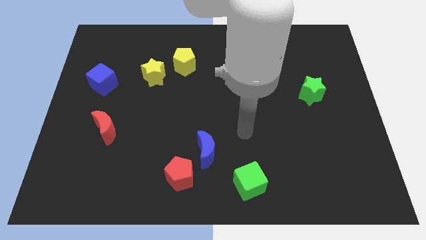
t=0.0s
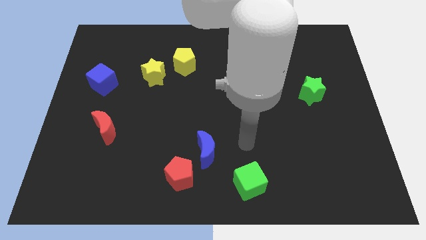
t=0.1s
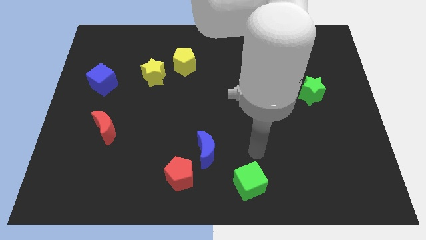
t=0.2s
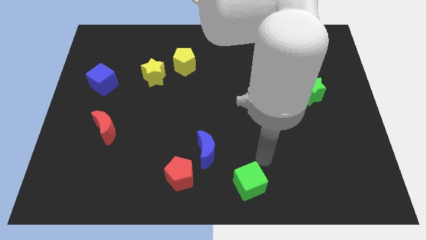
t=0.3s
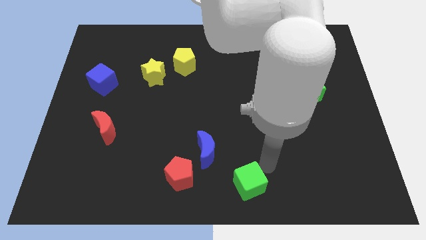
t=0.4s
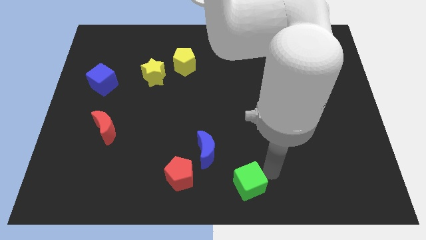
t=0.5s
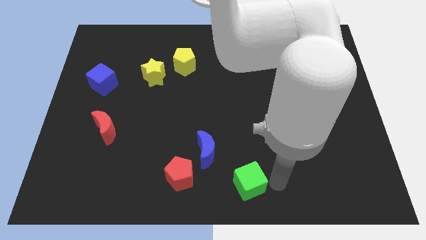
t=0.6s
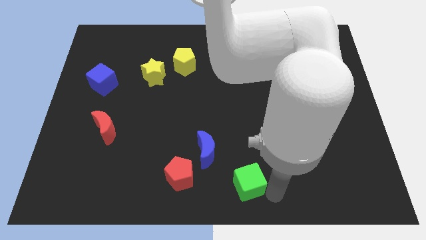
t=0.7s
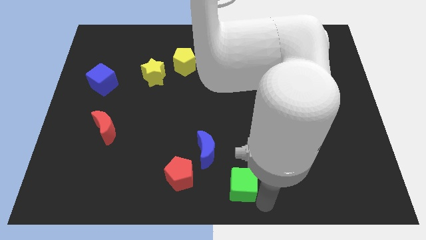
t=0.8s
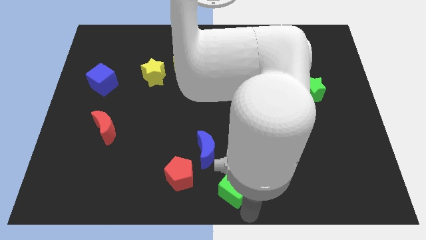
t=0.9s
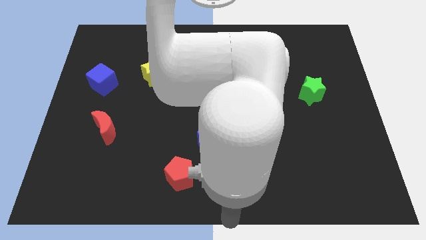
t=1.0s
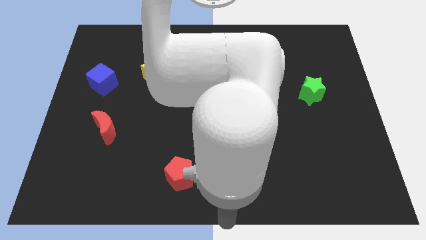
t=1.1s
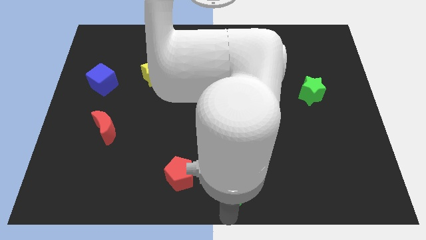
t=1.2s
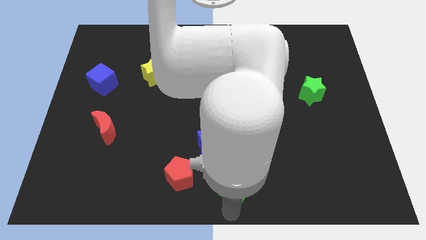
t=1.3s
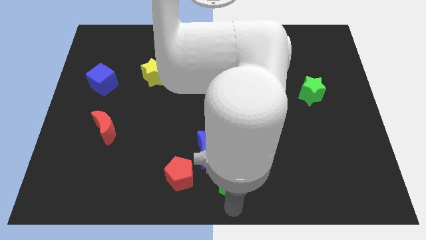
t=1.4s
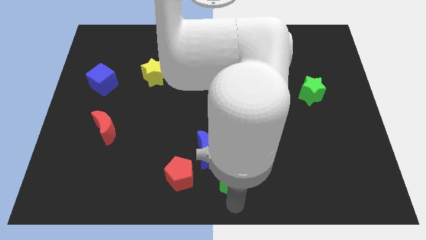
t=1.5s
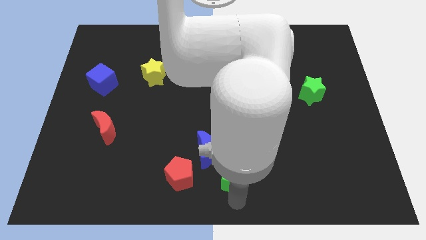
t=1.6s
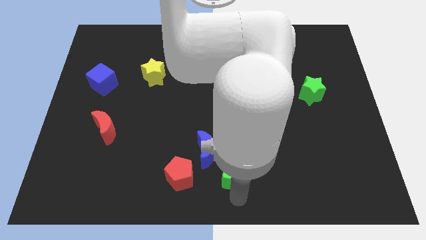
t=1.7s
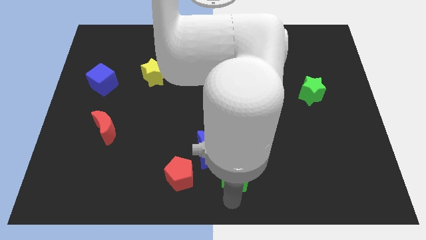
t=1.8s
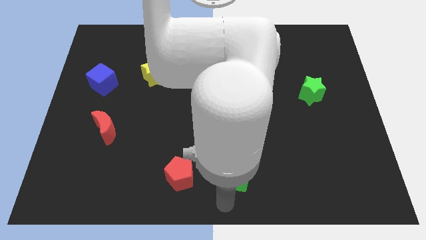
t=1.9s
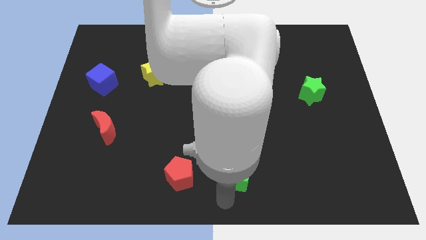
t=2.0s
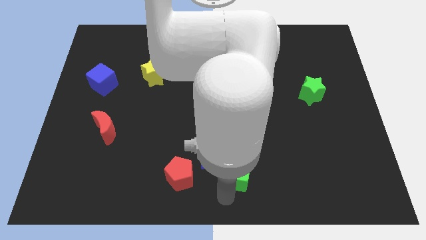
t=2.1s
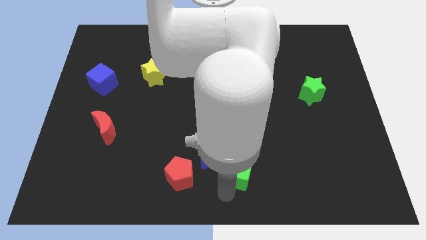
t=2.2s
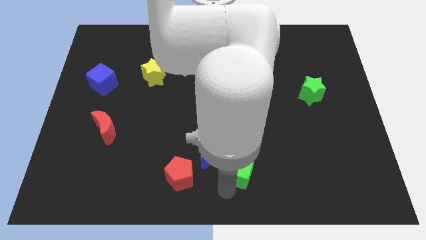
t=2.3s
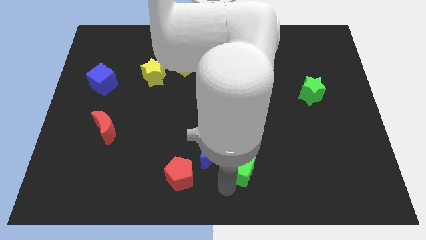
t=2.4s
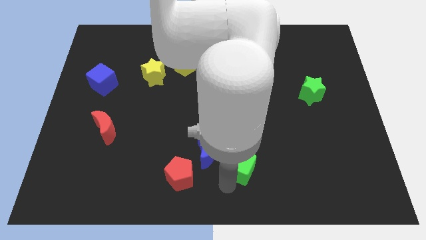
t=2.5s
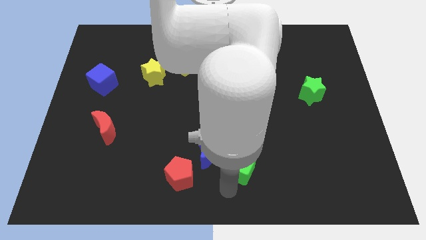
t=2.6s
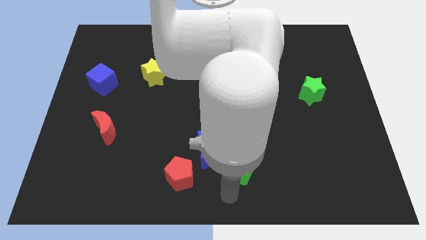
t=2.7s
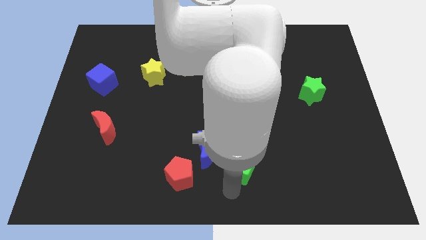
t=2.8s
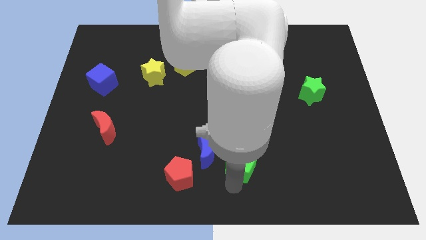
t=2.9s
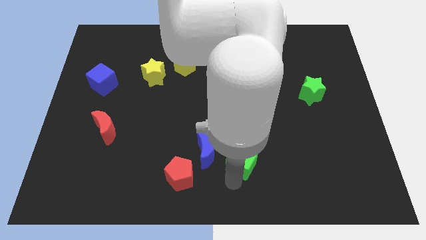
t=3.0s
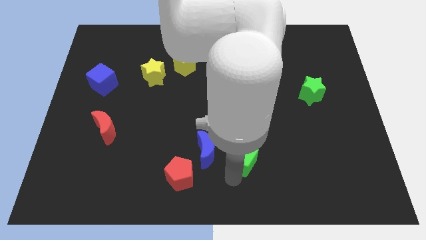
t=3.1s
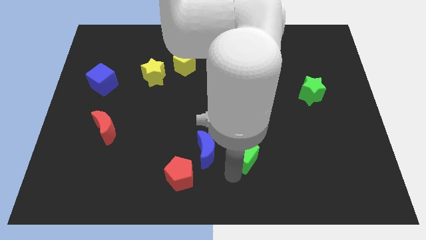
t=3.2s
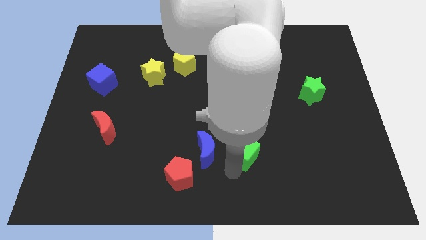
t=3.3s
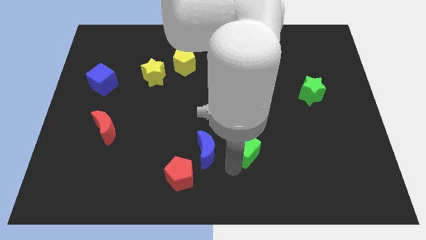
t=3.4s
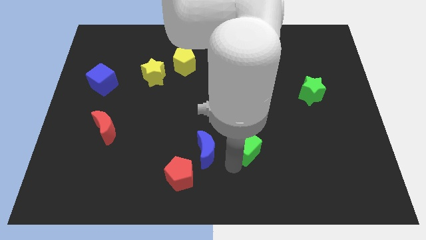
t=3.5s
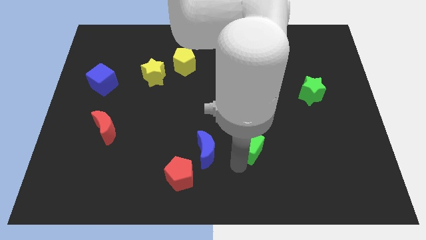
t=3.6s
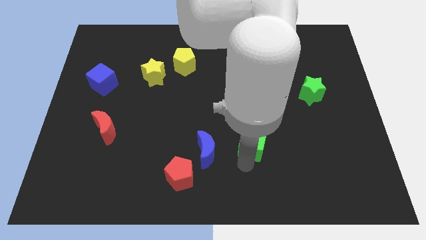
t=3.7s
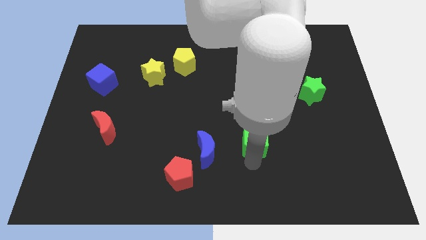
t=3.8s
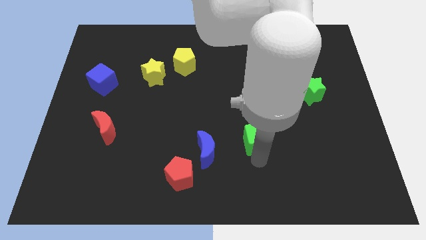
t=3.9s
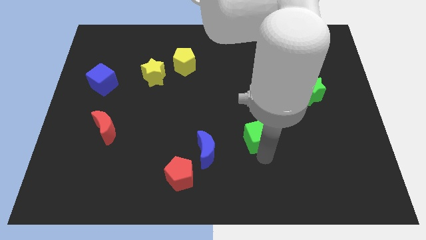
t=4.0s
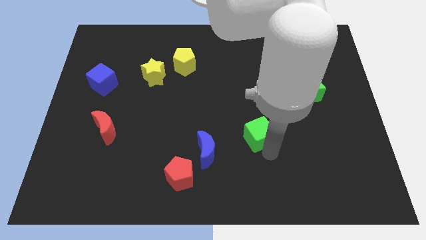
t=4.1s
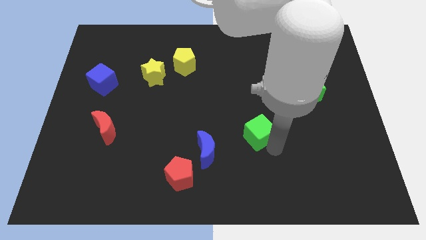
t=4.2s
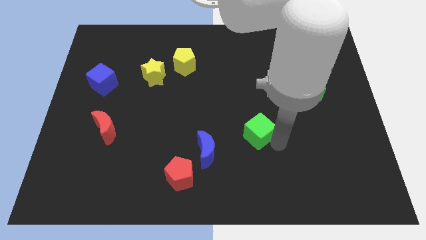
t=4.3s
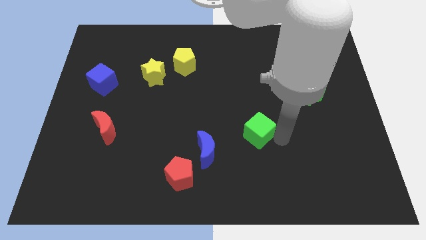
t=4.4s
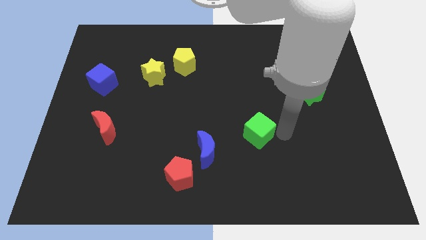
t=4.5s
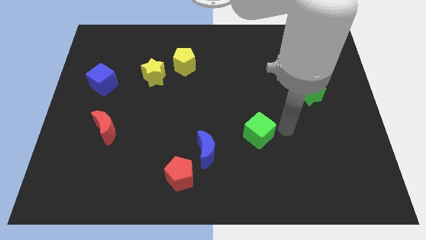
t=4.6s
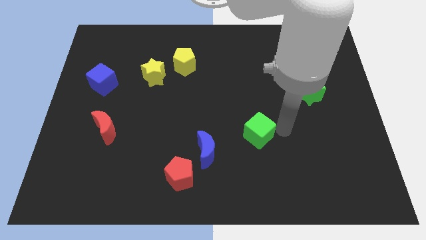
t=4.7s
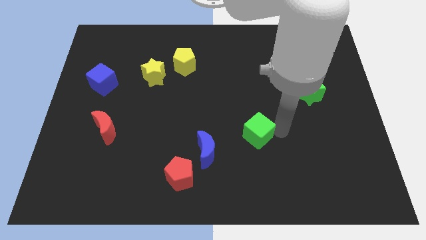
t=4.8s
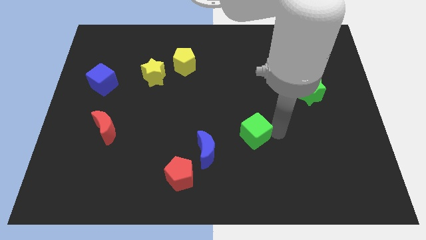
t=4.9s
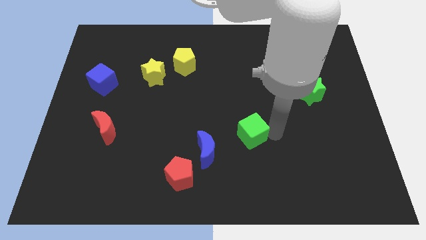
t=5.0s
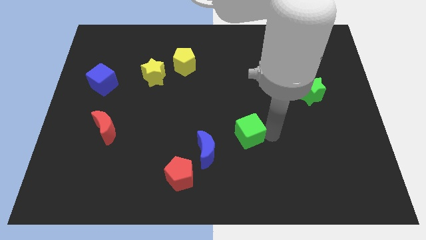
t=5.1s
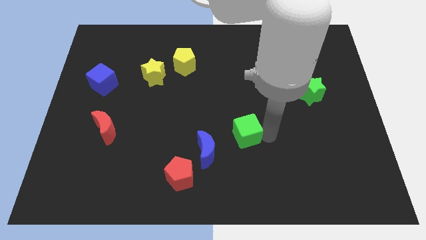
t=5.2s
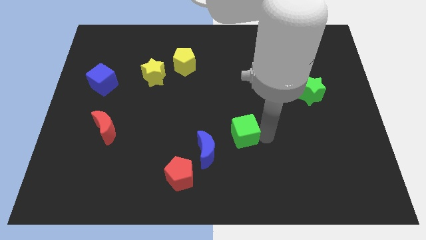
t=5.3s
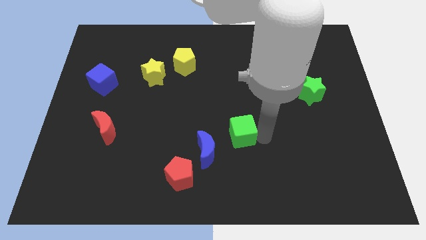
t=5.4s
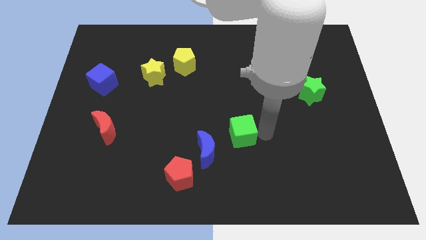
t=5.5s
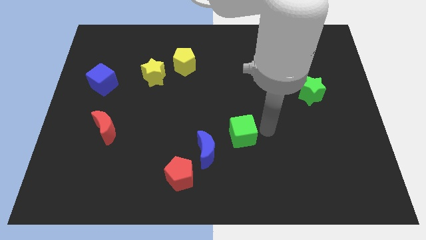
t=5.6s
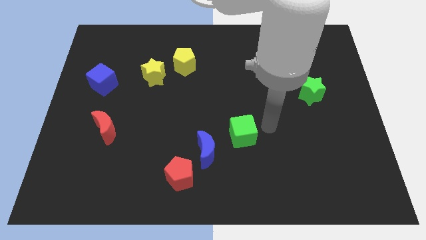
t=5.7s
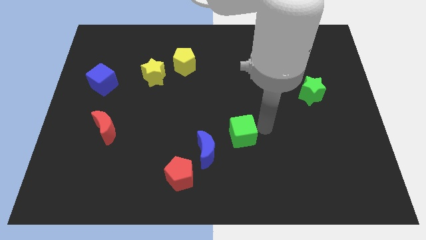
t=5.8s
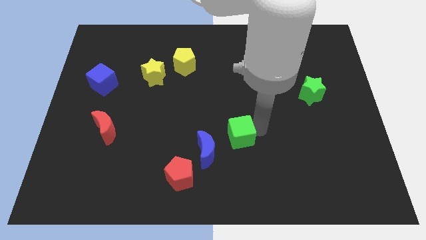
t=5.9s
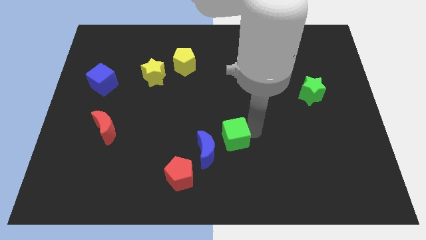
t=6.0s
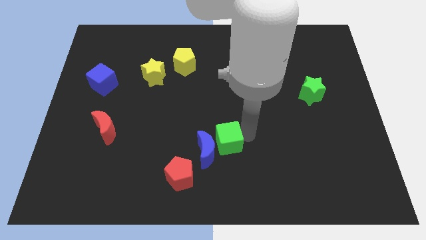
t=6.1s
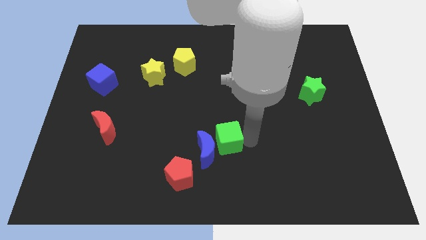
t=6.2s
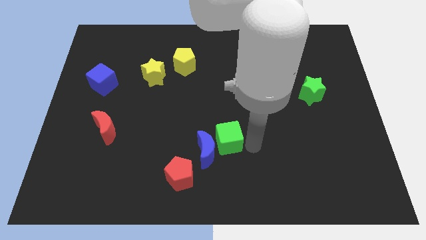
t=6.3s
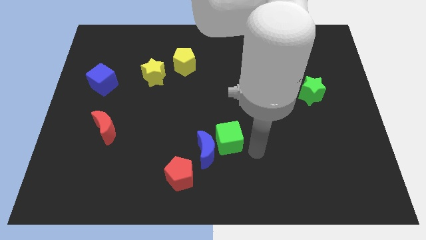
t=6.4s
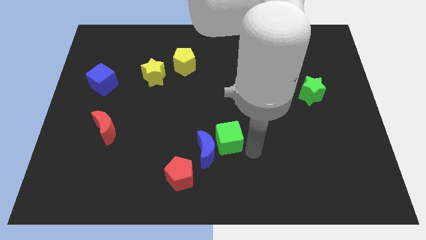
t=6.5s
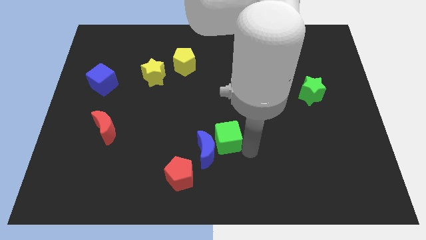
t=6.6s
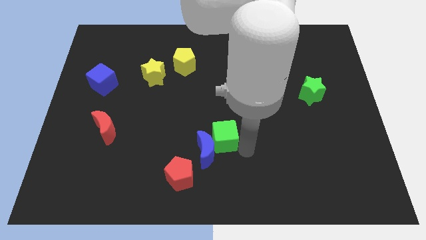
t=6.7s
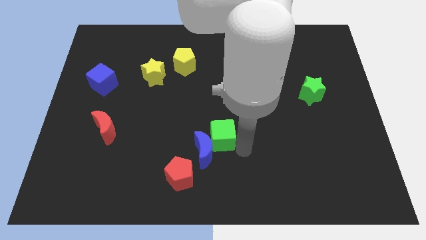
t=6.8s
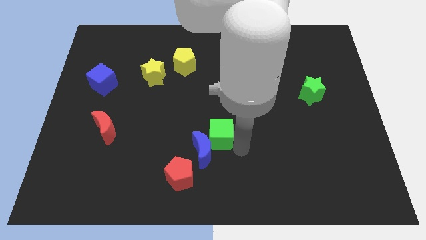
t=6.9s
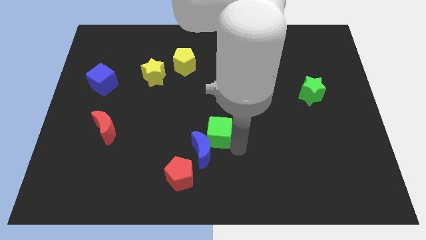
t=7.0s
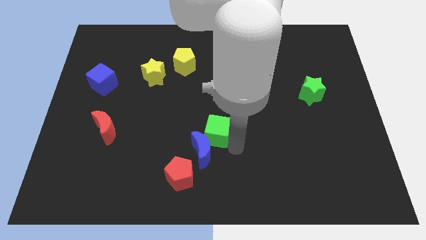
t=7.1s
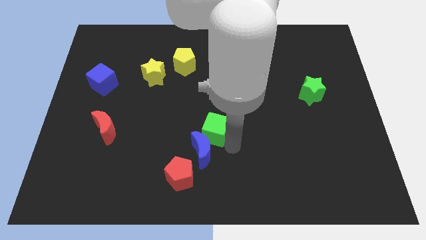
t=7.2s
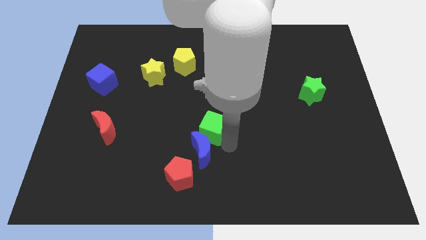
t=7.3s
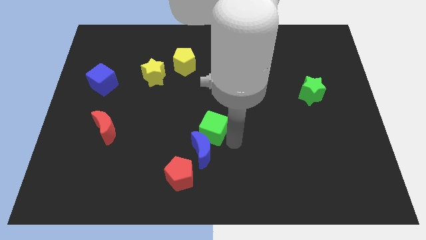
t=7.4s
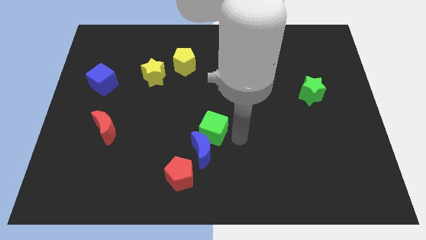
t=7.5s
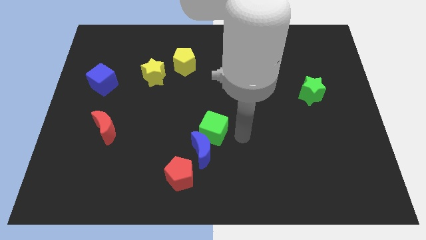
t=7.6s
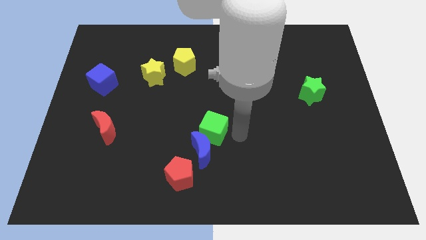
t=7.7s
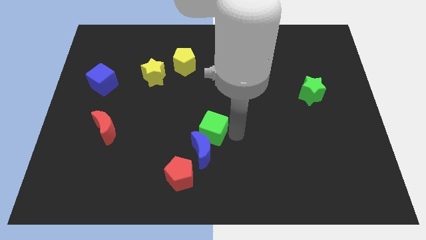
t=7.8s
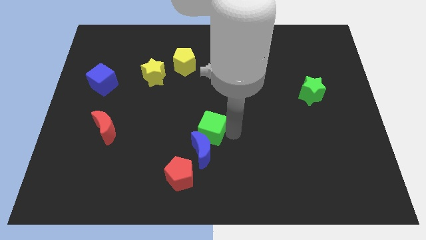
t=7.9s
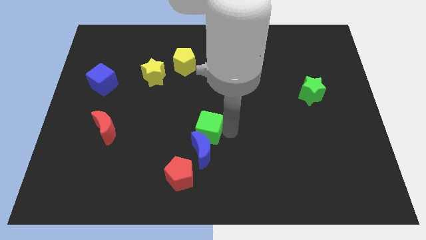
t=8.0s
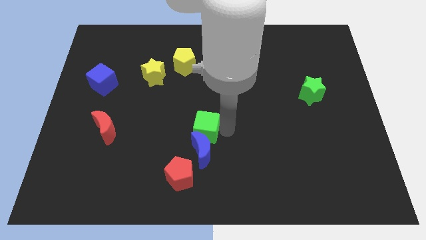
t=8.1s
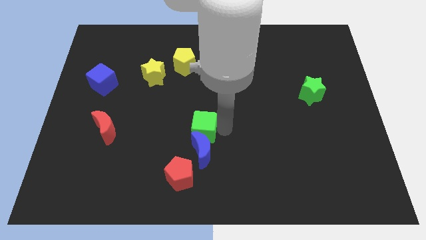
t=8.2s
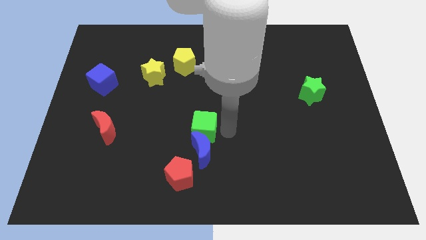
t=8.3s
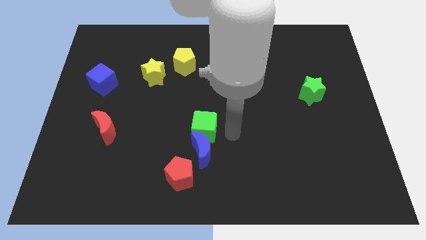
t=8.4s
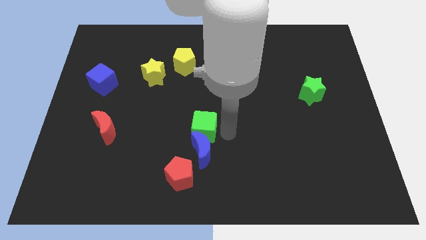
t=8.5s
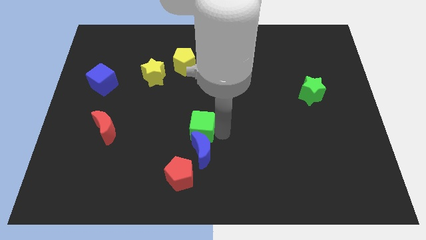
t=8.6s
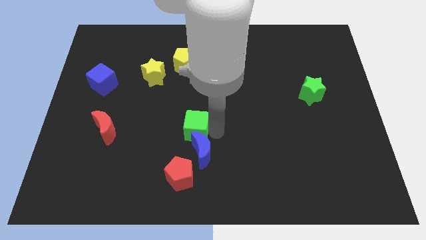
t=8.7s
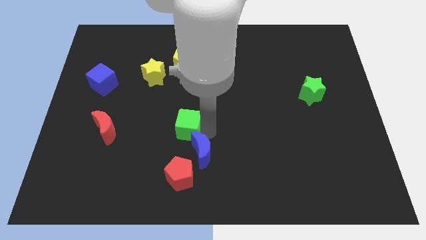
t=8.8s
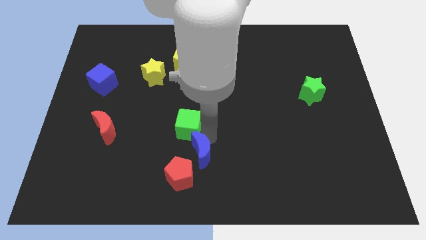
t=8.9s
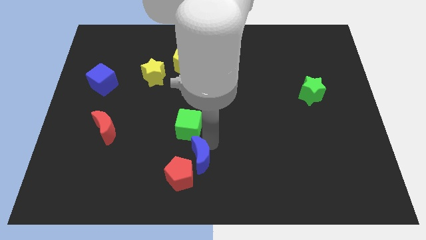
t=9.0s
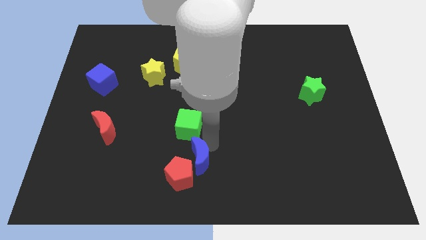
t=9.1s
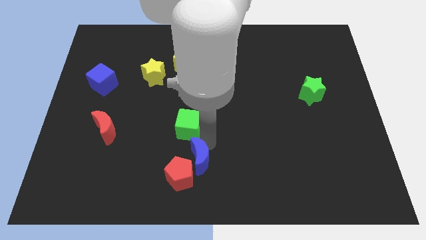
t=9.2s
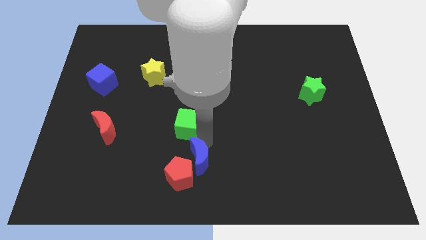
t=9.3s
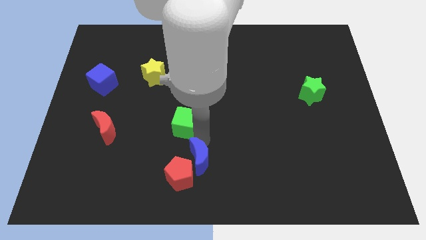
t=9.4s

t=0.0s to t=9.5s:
push the green cube diagonally up and to the left
